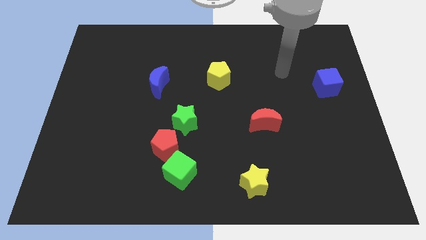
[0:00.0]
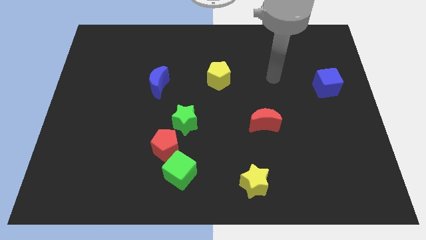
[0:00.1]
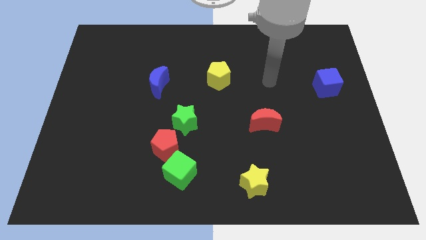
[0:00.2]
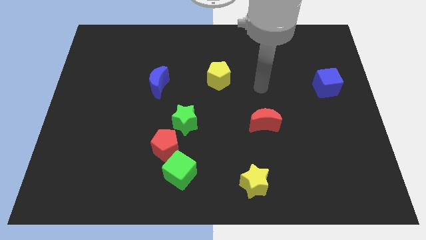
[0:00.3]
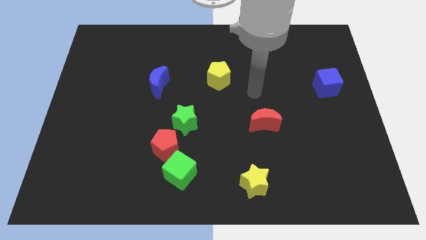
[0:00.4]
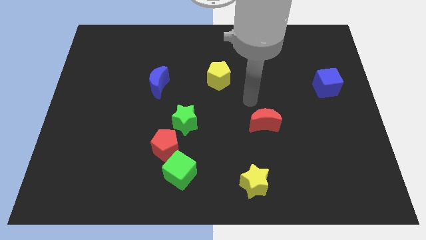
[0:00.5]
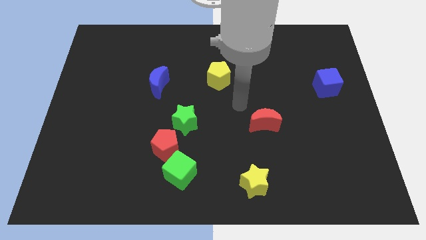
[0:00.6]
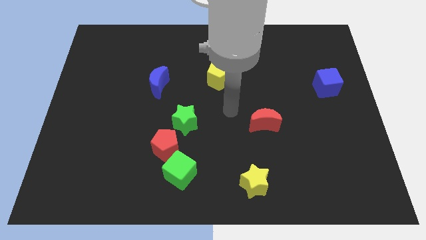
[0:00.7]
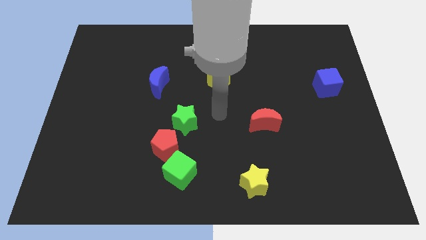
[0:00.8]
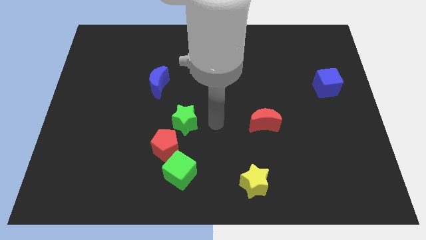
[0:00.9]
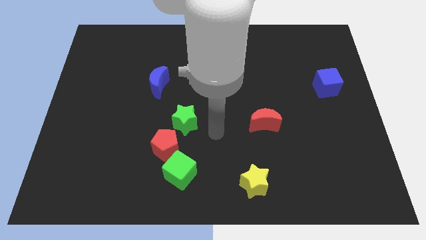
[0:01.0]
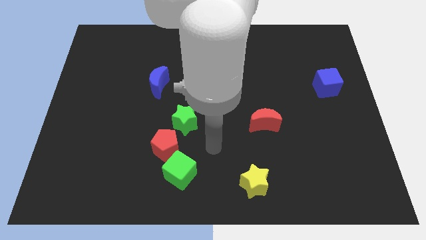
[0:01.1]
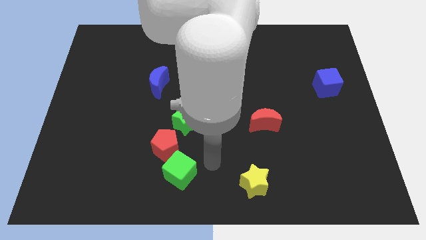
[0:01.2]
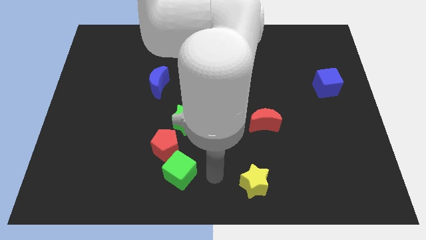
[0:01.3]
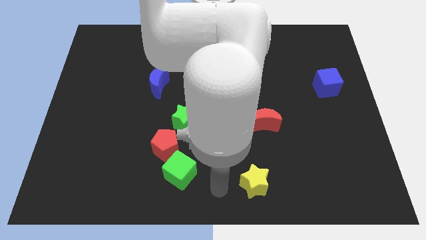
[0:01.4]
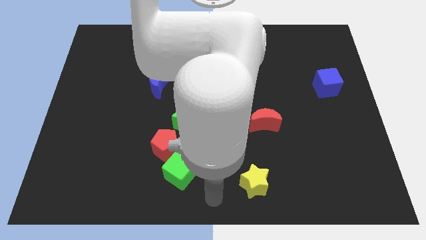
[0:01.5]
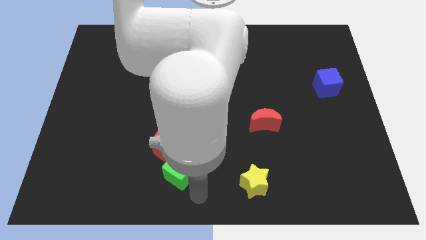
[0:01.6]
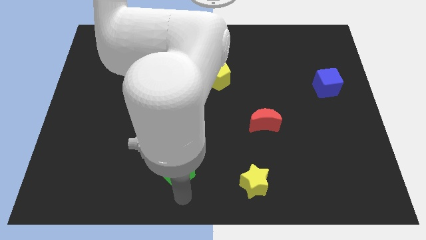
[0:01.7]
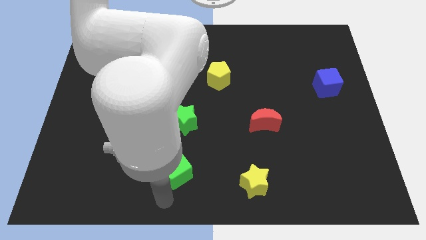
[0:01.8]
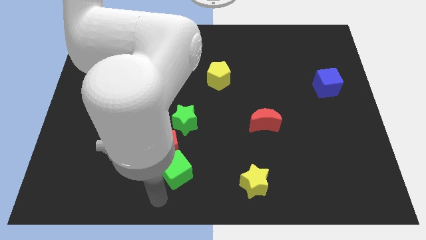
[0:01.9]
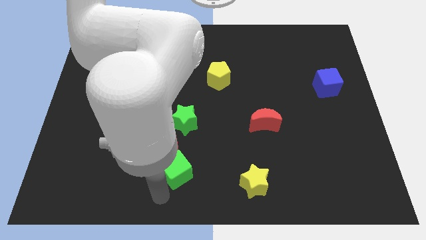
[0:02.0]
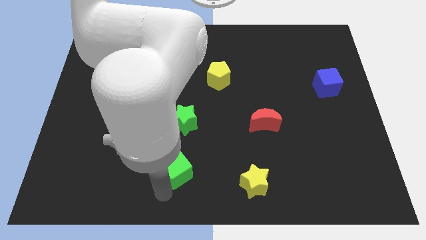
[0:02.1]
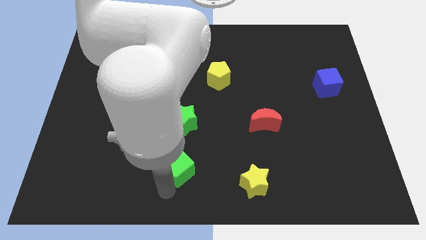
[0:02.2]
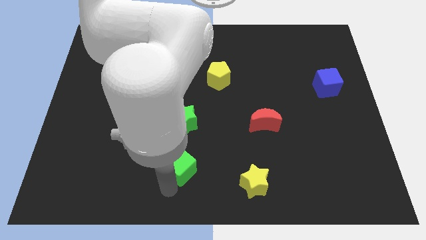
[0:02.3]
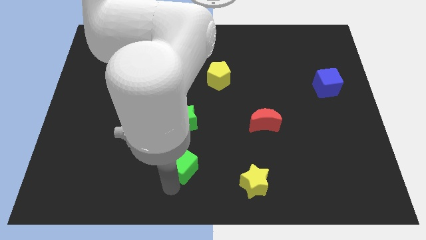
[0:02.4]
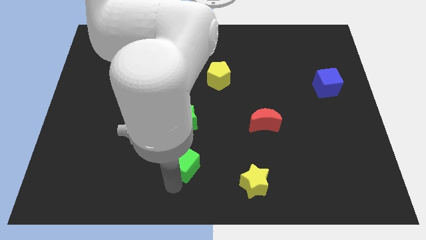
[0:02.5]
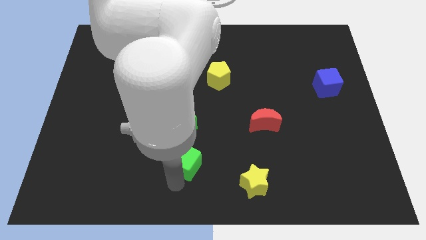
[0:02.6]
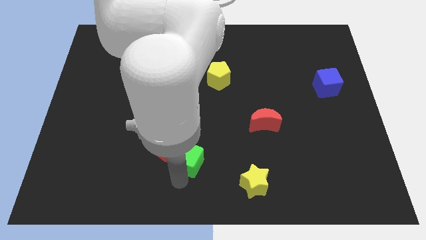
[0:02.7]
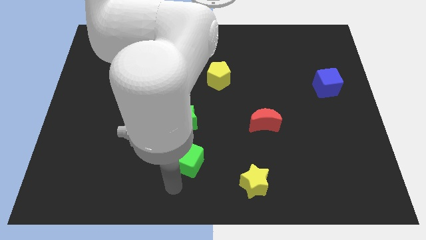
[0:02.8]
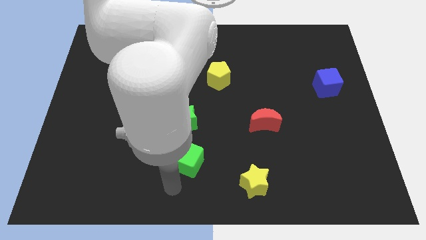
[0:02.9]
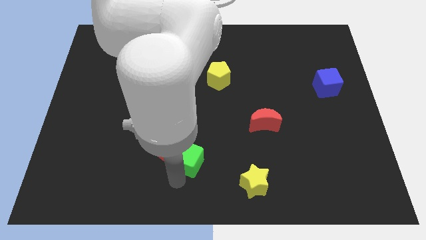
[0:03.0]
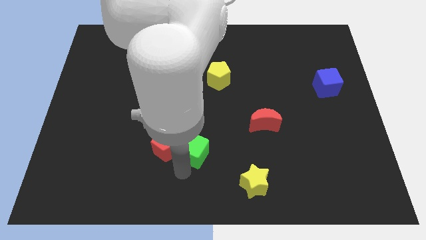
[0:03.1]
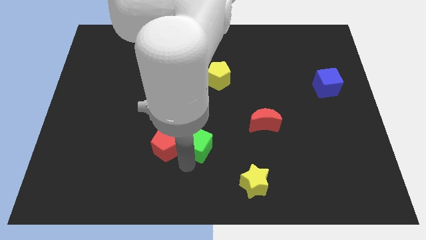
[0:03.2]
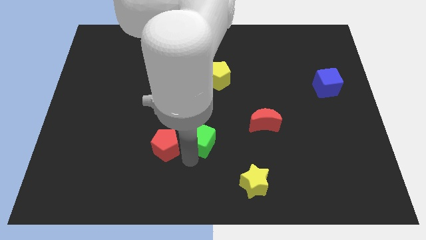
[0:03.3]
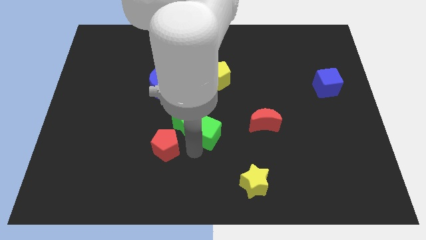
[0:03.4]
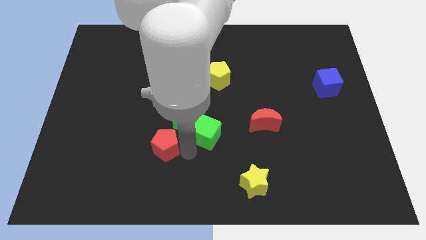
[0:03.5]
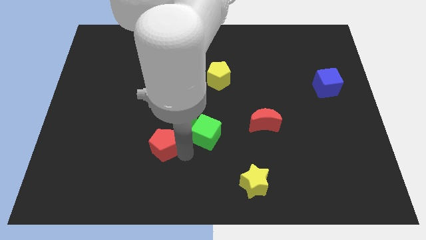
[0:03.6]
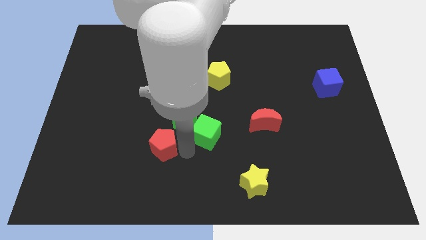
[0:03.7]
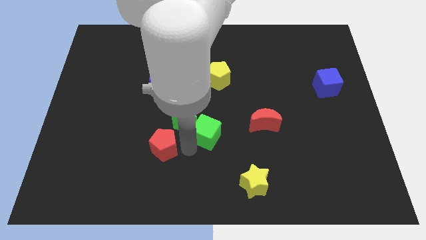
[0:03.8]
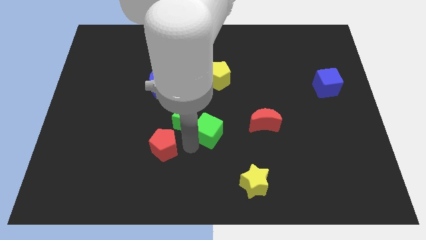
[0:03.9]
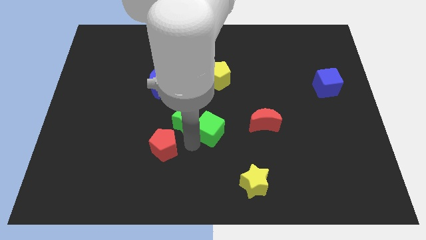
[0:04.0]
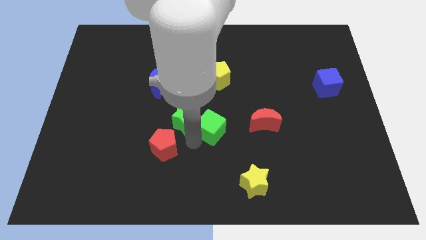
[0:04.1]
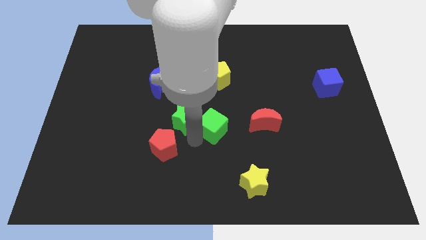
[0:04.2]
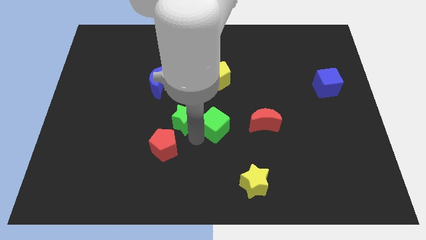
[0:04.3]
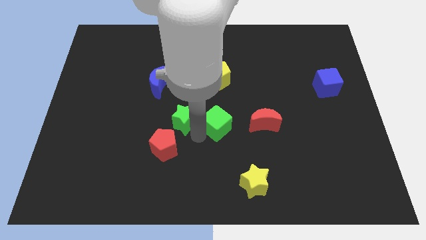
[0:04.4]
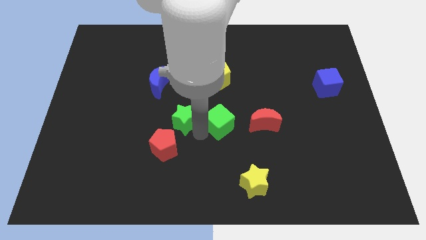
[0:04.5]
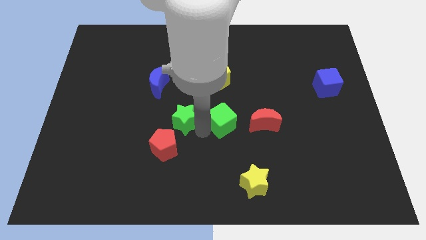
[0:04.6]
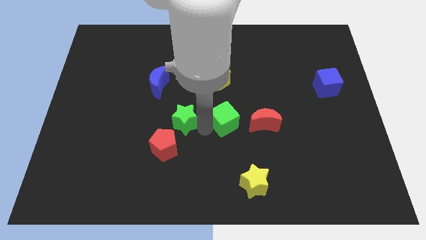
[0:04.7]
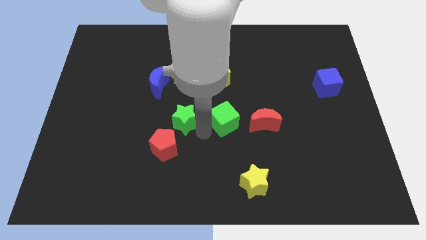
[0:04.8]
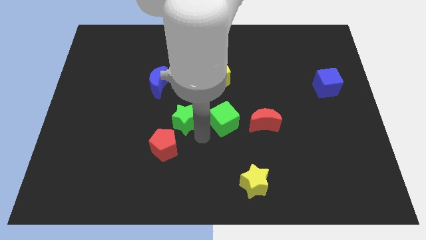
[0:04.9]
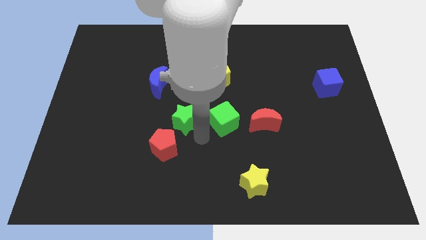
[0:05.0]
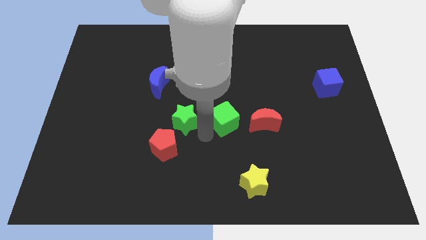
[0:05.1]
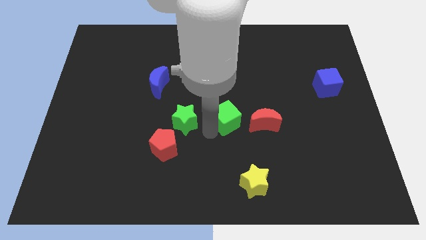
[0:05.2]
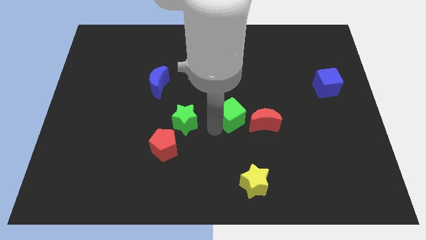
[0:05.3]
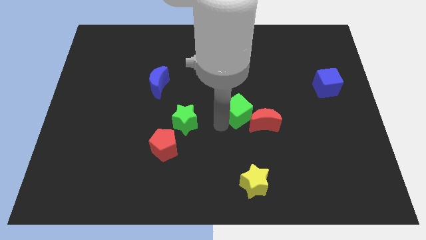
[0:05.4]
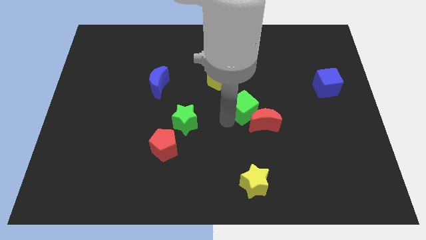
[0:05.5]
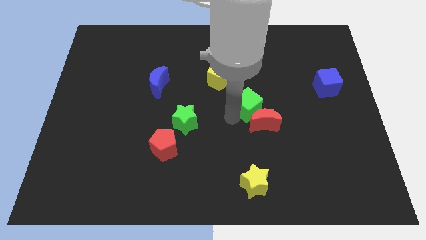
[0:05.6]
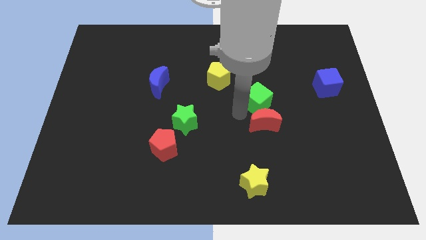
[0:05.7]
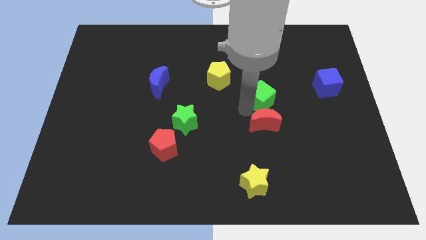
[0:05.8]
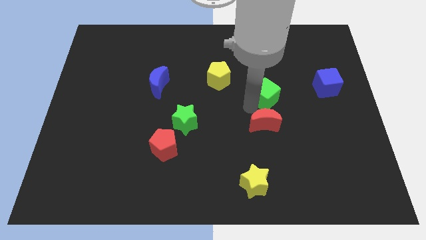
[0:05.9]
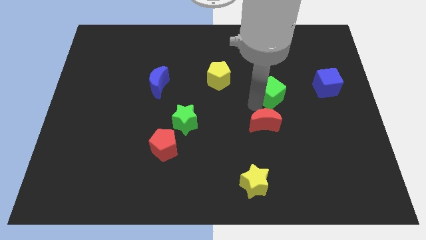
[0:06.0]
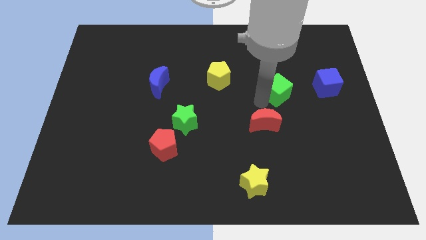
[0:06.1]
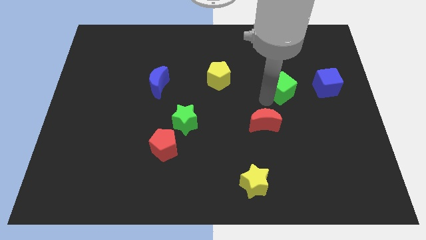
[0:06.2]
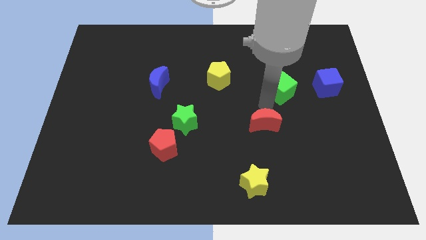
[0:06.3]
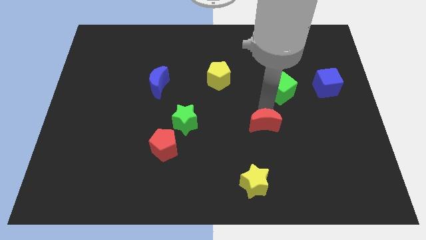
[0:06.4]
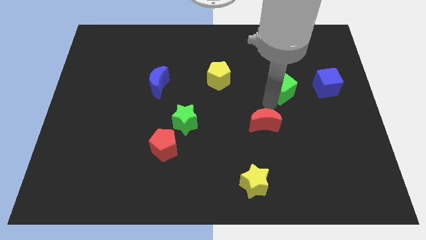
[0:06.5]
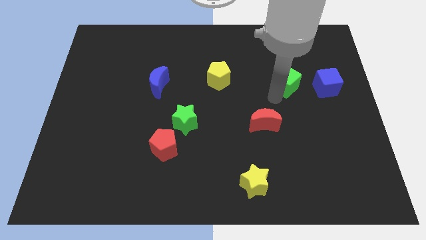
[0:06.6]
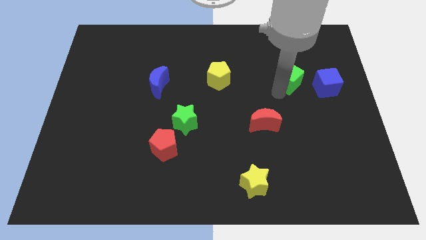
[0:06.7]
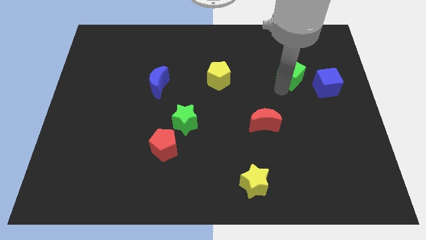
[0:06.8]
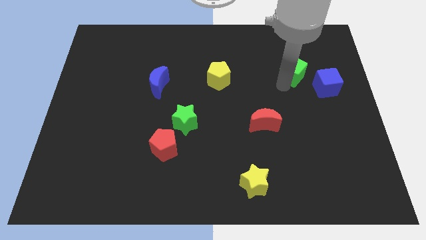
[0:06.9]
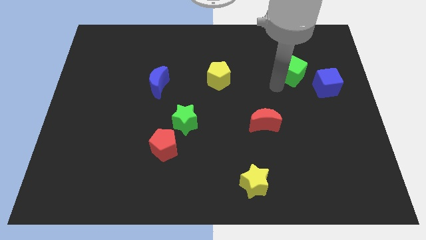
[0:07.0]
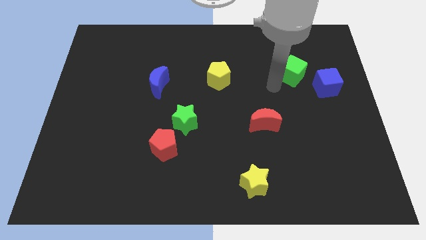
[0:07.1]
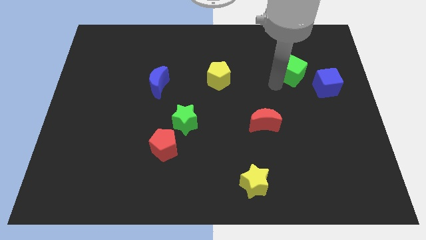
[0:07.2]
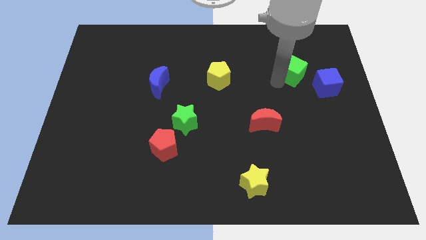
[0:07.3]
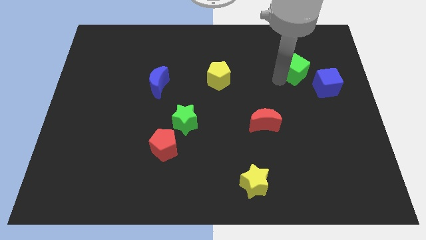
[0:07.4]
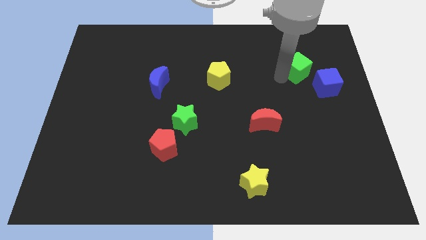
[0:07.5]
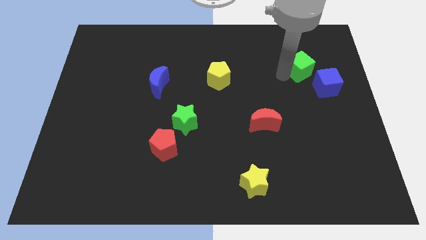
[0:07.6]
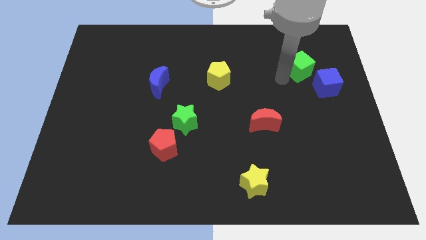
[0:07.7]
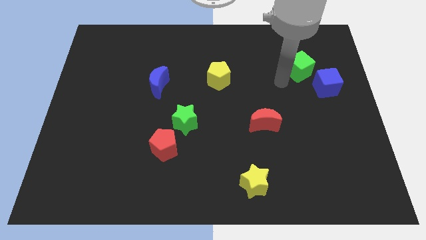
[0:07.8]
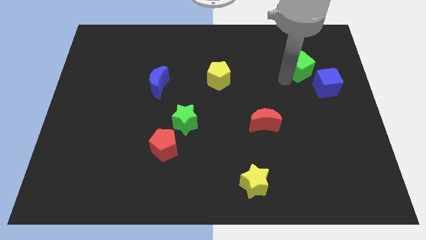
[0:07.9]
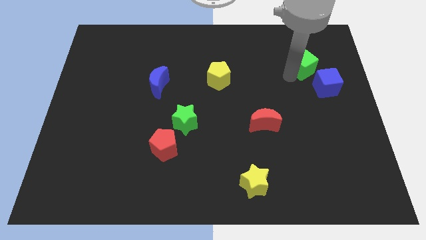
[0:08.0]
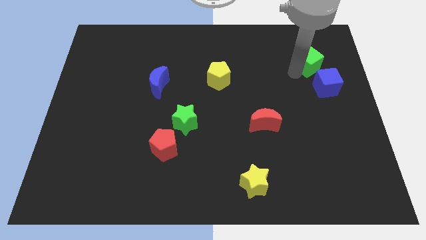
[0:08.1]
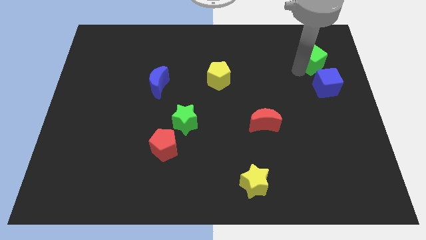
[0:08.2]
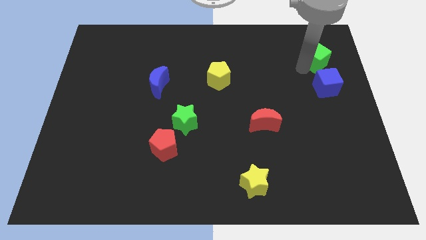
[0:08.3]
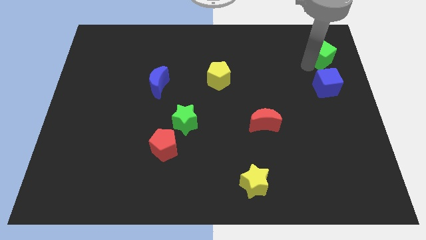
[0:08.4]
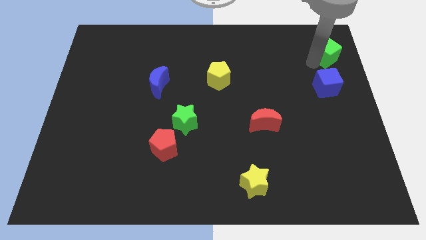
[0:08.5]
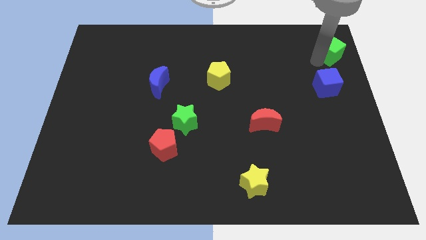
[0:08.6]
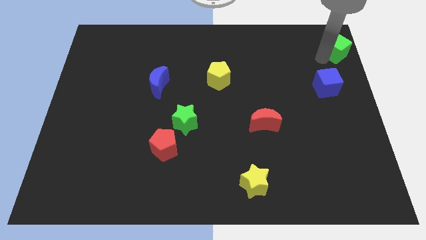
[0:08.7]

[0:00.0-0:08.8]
slide the green cube to the top right of the board
